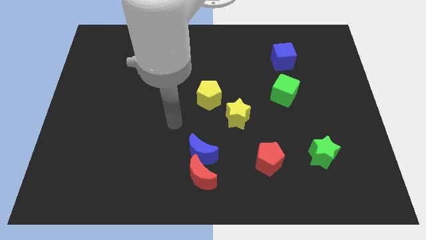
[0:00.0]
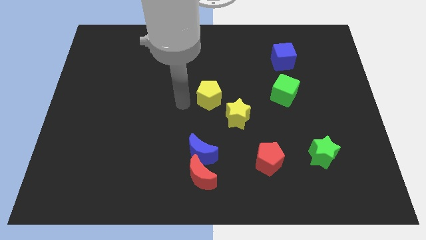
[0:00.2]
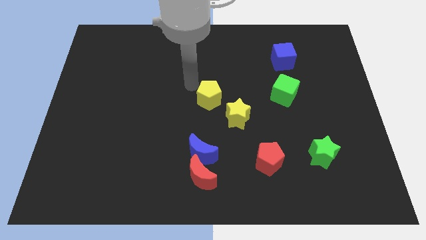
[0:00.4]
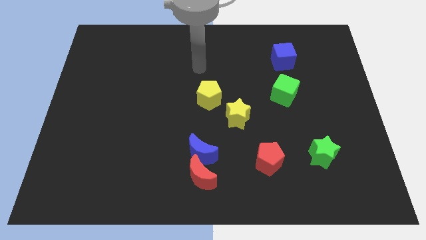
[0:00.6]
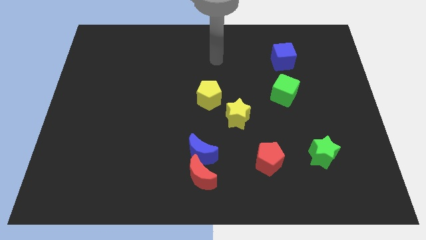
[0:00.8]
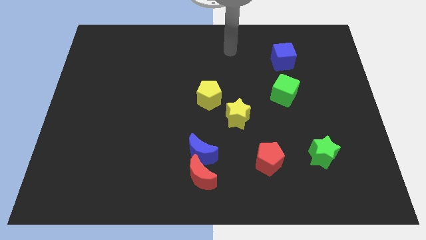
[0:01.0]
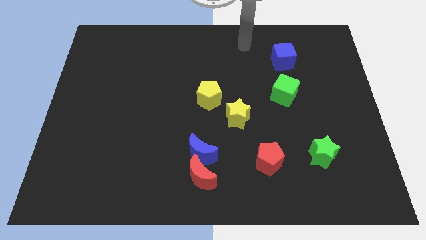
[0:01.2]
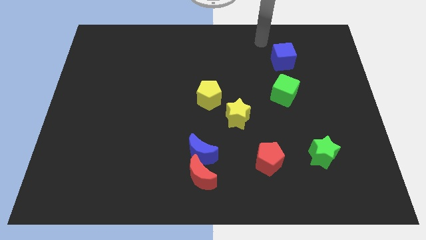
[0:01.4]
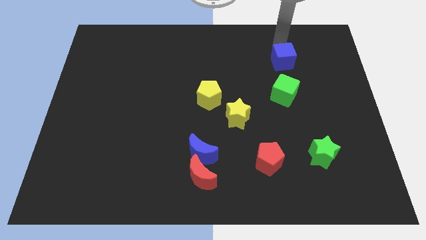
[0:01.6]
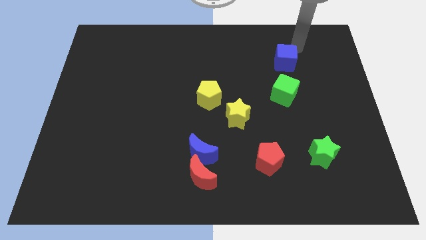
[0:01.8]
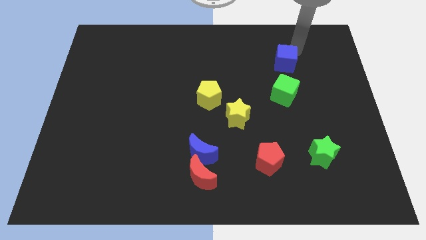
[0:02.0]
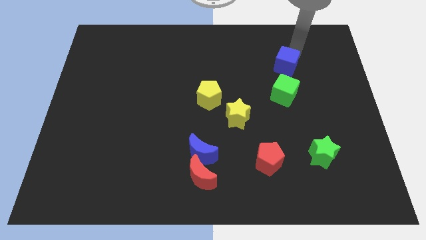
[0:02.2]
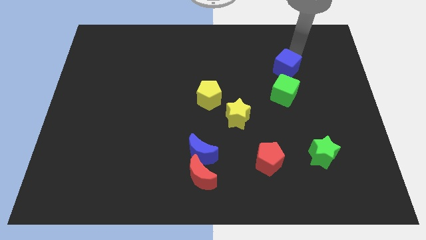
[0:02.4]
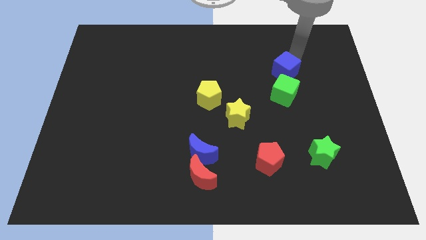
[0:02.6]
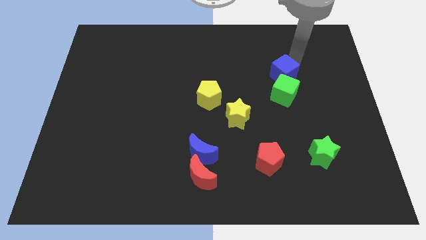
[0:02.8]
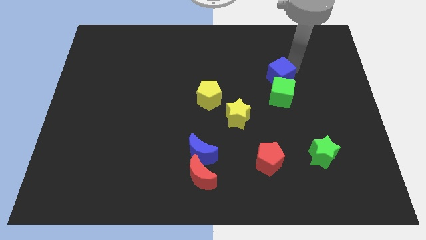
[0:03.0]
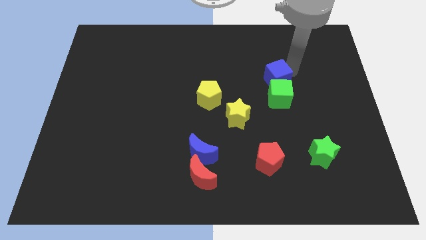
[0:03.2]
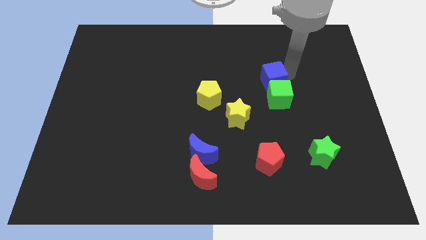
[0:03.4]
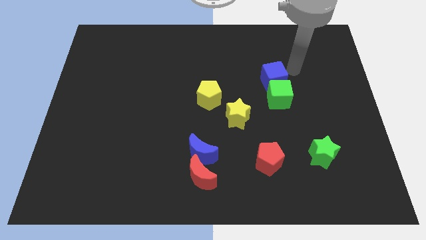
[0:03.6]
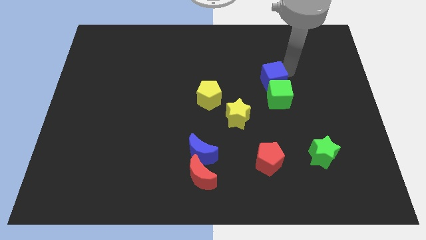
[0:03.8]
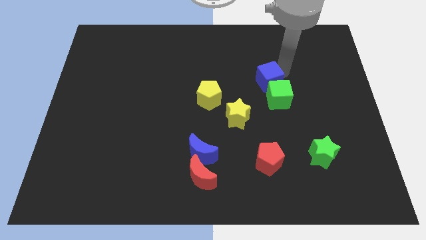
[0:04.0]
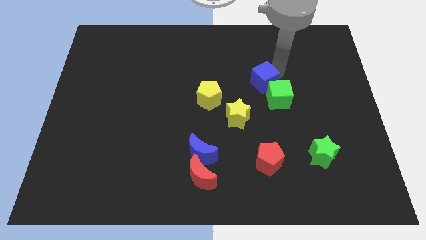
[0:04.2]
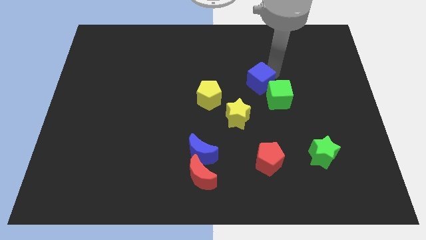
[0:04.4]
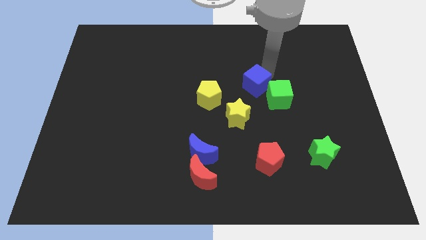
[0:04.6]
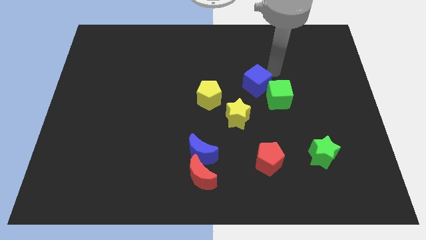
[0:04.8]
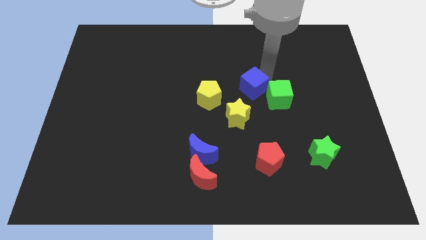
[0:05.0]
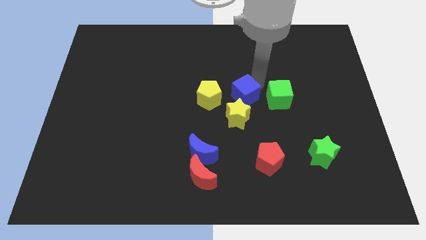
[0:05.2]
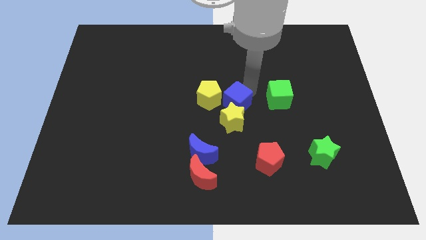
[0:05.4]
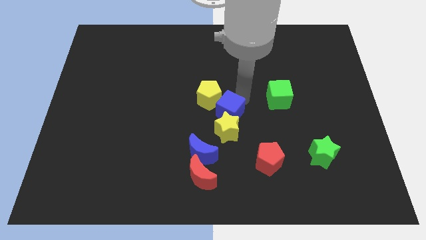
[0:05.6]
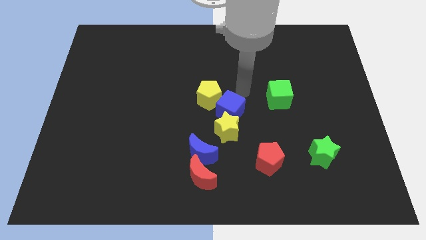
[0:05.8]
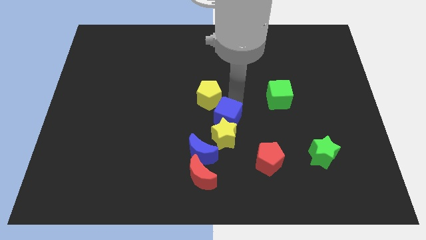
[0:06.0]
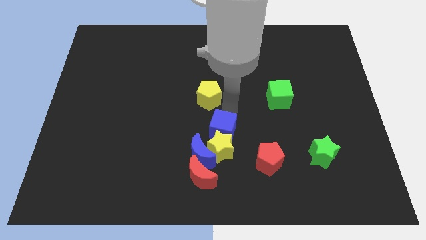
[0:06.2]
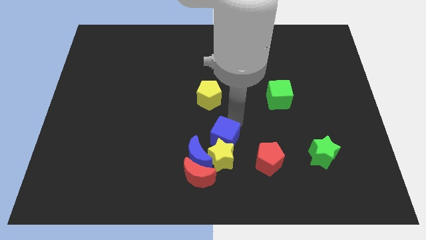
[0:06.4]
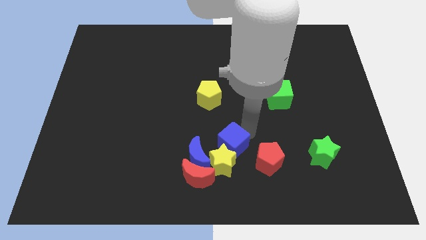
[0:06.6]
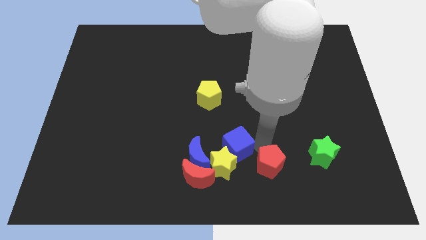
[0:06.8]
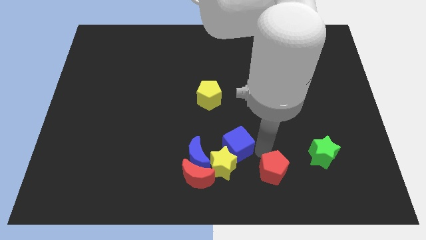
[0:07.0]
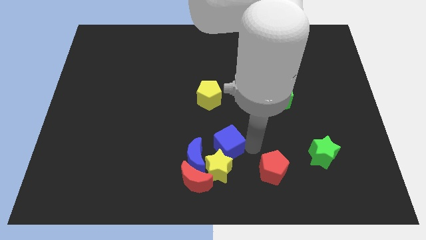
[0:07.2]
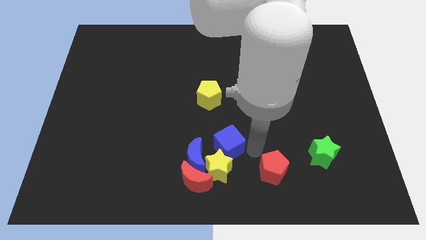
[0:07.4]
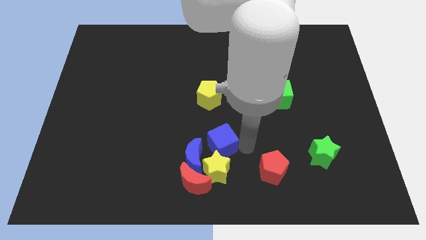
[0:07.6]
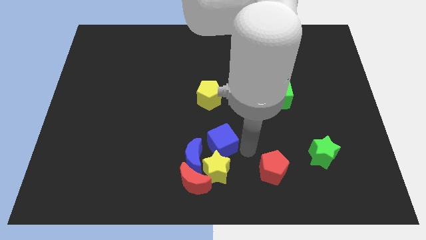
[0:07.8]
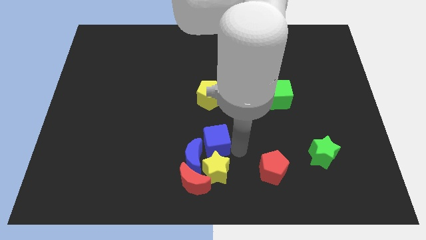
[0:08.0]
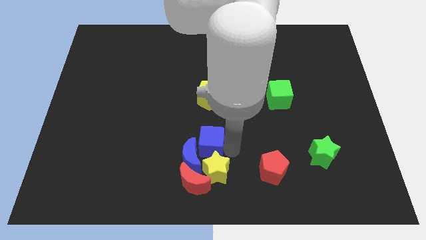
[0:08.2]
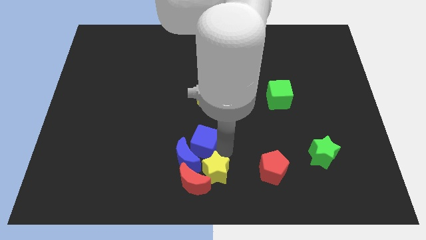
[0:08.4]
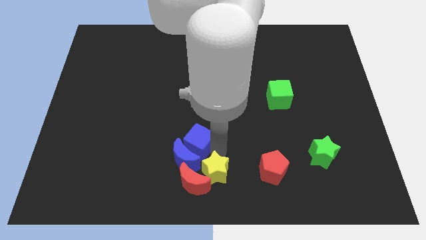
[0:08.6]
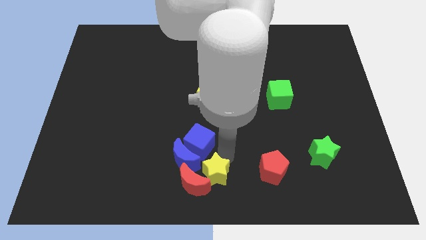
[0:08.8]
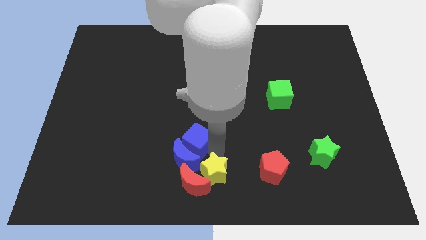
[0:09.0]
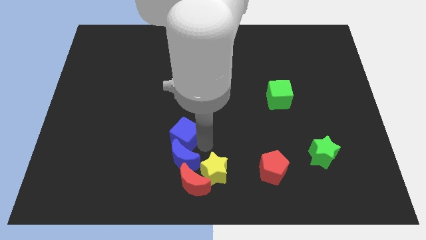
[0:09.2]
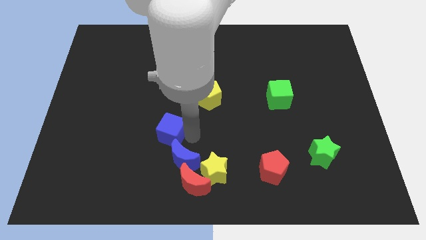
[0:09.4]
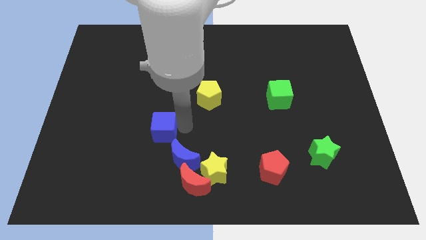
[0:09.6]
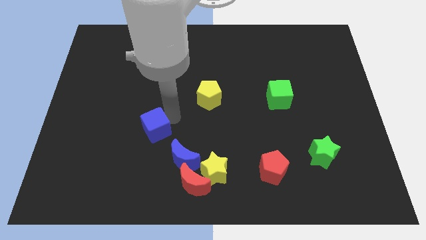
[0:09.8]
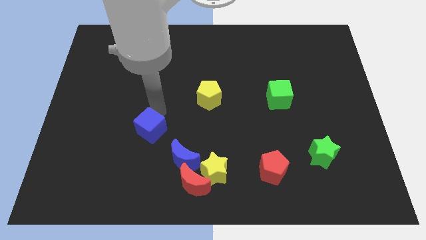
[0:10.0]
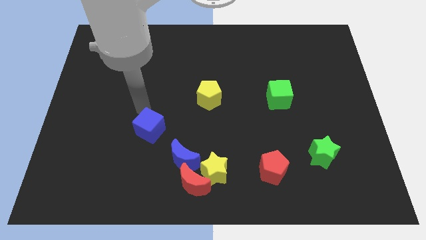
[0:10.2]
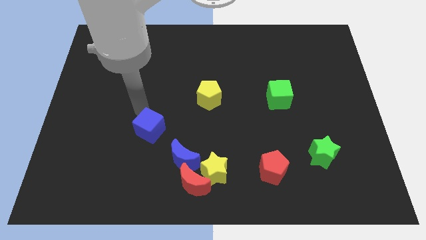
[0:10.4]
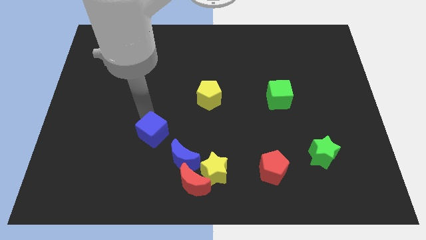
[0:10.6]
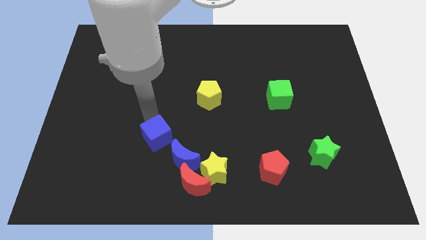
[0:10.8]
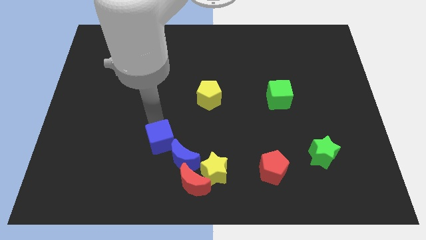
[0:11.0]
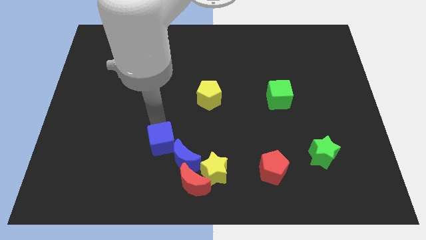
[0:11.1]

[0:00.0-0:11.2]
move the blue cube to the top left of the red moon

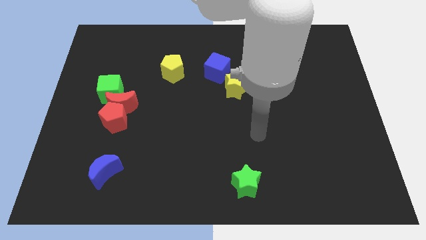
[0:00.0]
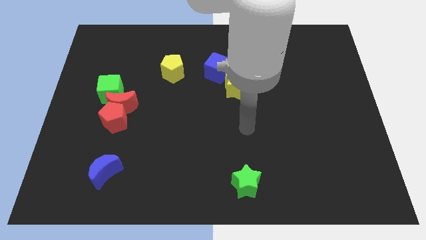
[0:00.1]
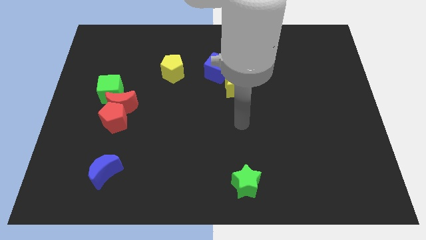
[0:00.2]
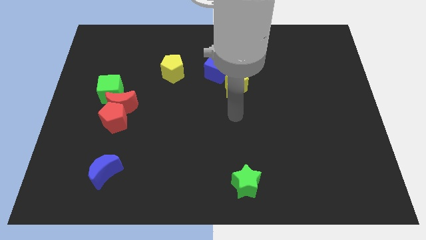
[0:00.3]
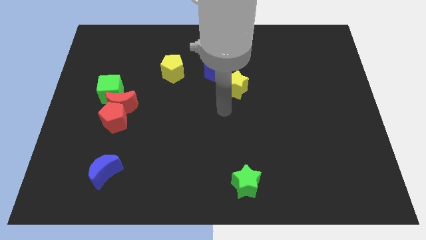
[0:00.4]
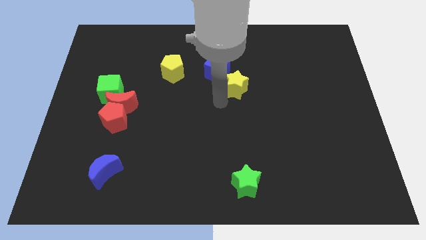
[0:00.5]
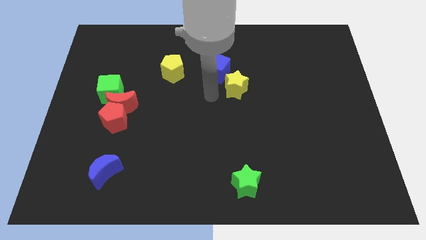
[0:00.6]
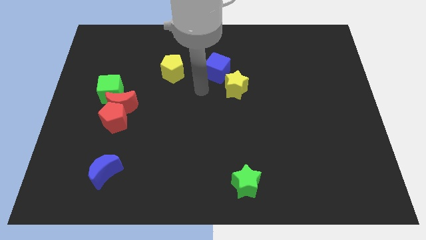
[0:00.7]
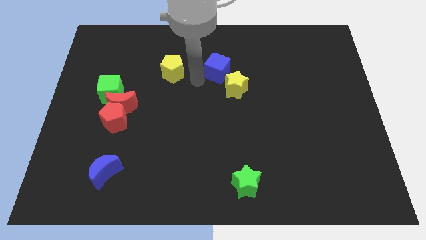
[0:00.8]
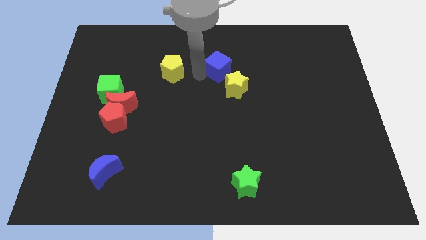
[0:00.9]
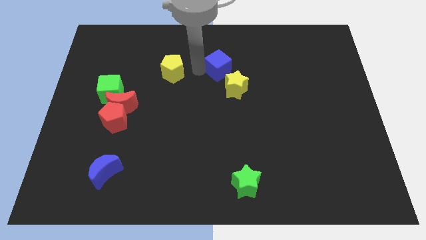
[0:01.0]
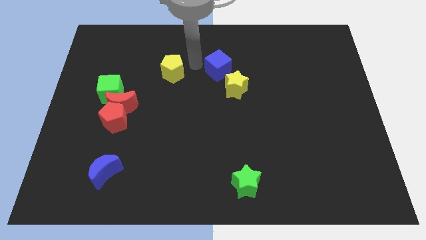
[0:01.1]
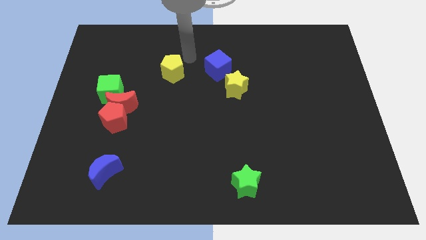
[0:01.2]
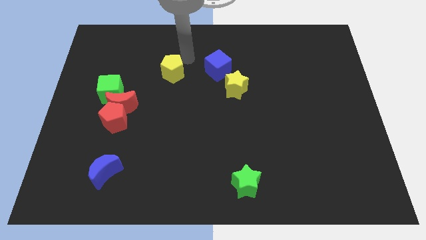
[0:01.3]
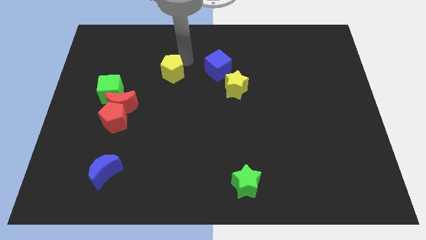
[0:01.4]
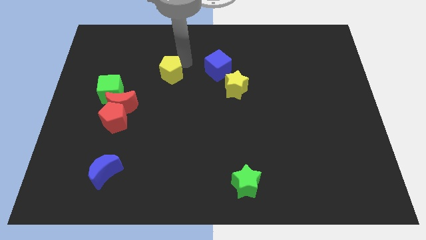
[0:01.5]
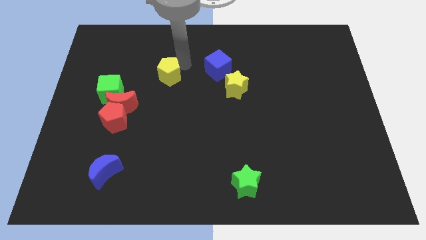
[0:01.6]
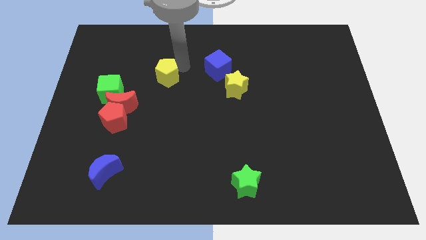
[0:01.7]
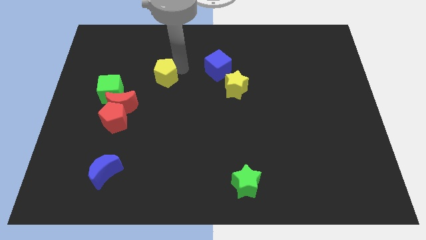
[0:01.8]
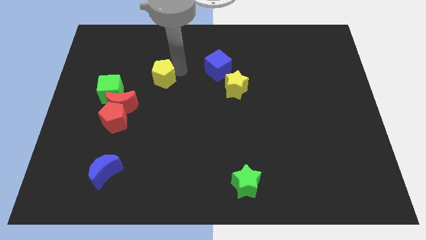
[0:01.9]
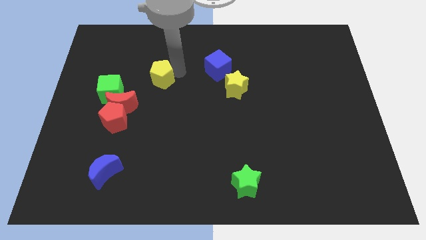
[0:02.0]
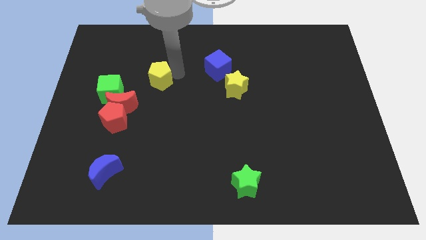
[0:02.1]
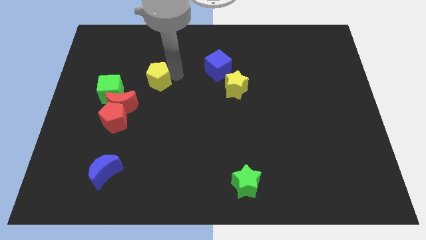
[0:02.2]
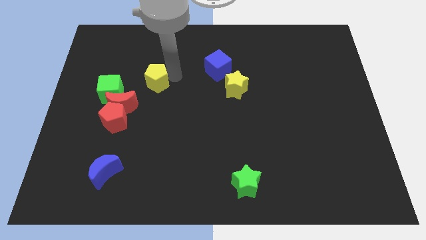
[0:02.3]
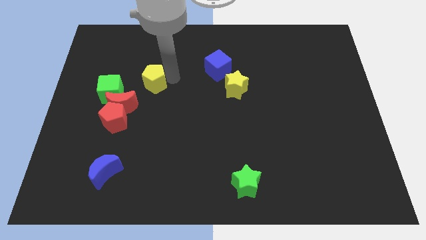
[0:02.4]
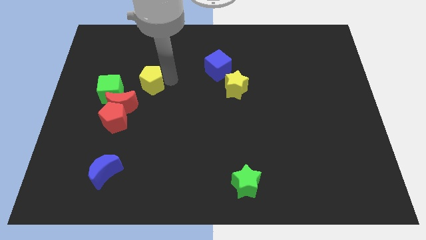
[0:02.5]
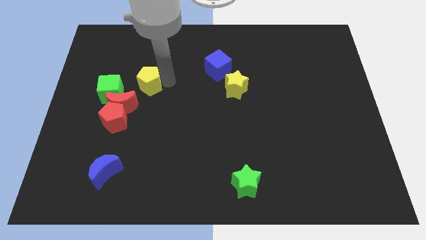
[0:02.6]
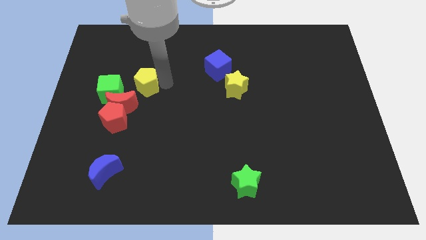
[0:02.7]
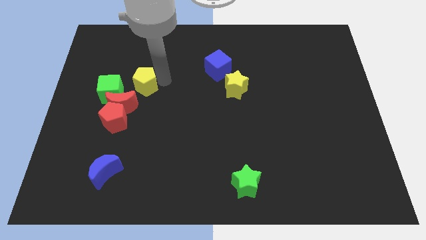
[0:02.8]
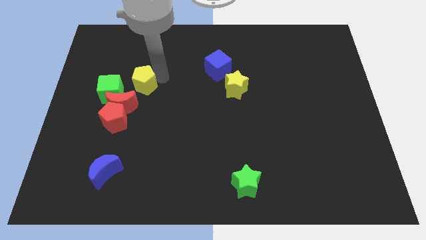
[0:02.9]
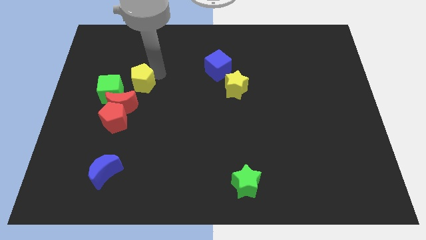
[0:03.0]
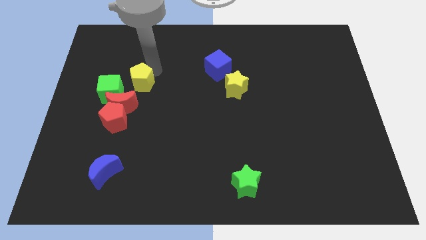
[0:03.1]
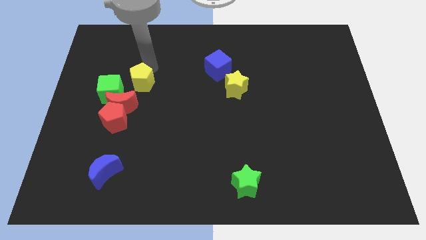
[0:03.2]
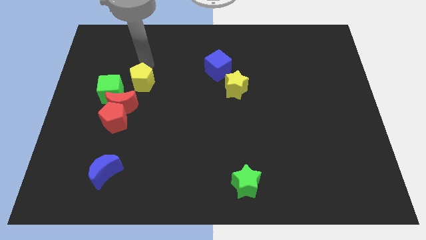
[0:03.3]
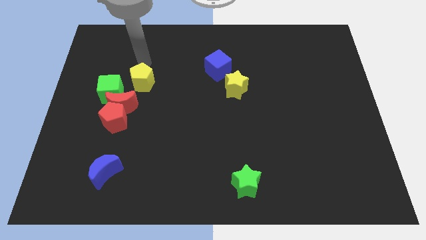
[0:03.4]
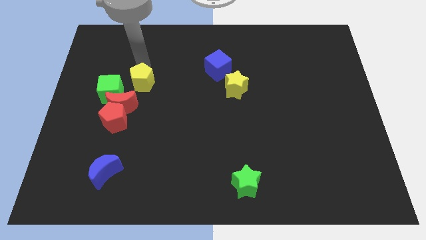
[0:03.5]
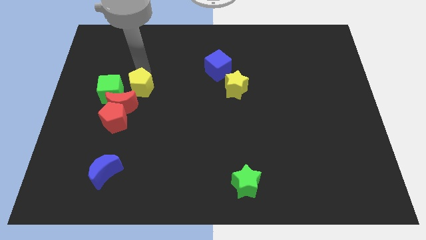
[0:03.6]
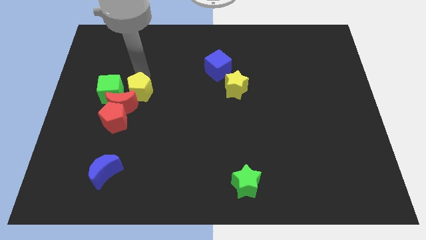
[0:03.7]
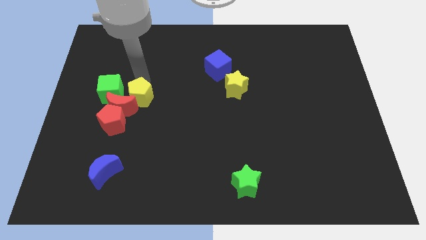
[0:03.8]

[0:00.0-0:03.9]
push the yellow pentagon to the bottom right of the green cube
